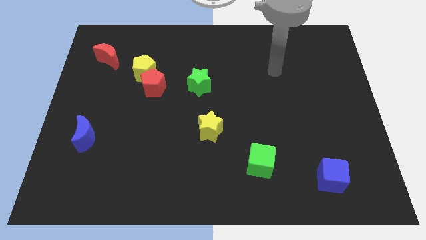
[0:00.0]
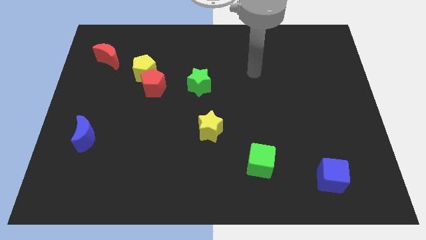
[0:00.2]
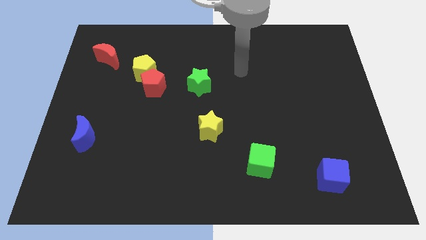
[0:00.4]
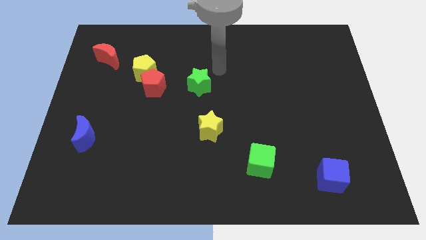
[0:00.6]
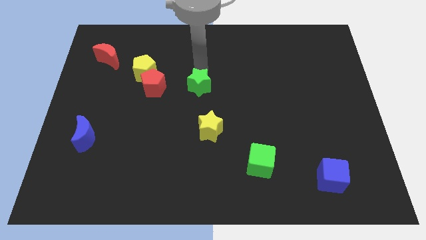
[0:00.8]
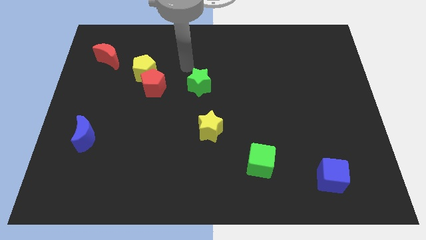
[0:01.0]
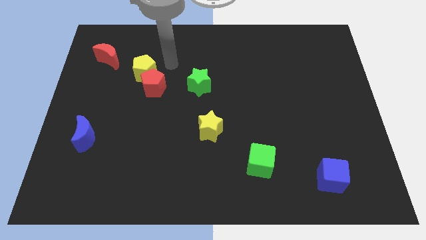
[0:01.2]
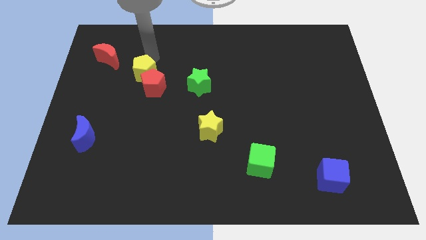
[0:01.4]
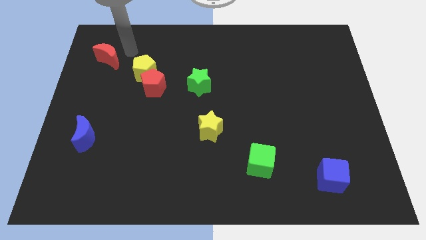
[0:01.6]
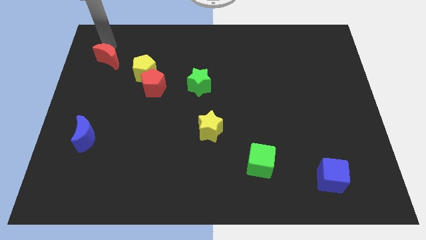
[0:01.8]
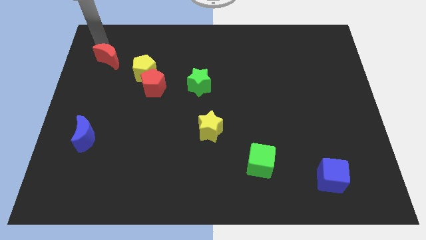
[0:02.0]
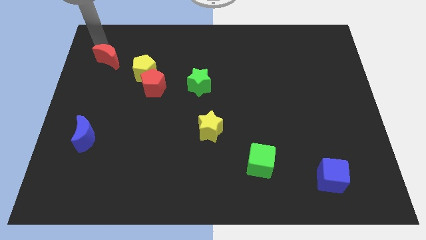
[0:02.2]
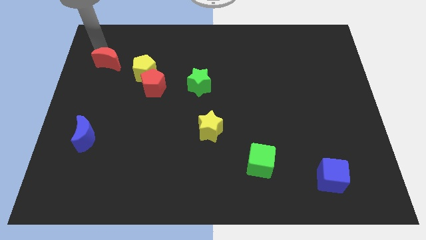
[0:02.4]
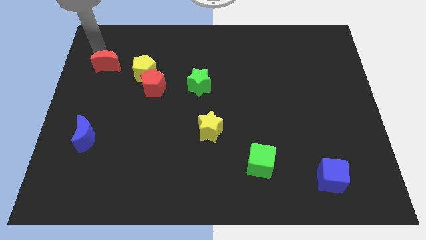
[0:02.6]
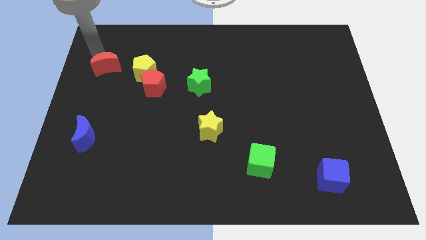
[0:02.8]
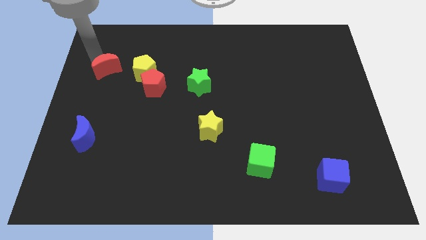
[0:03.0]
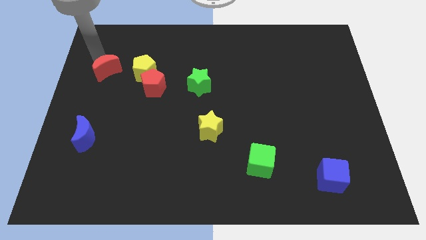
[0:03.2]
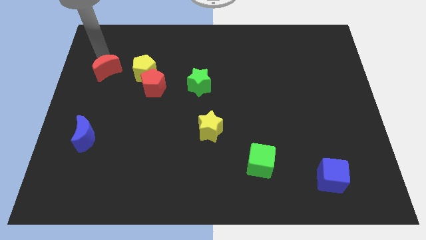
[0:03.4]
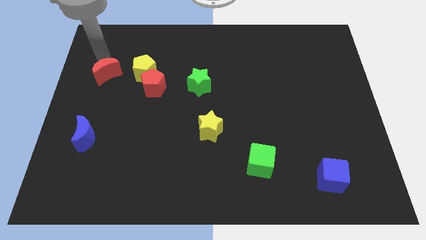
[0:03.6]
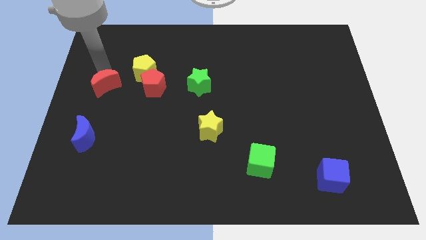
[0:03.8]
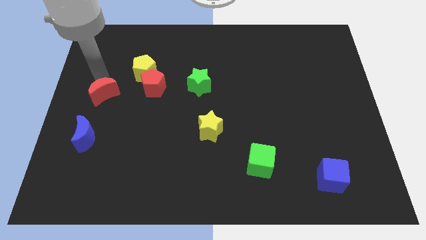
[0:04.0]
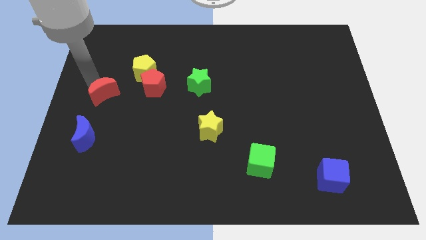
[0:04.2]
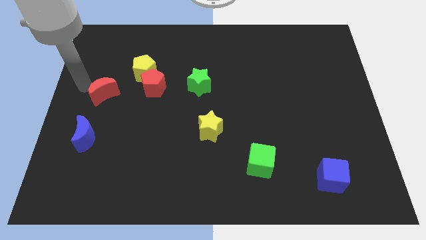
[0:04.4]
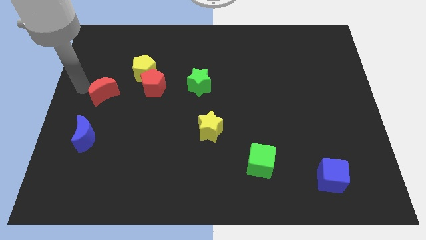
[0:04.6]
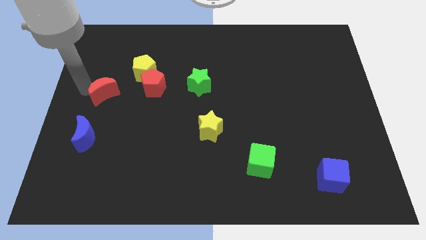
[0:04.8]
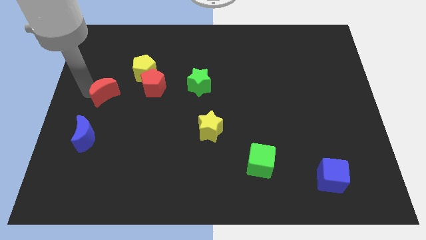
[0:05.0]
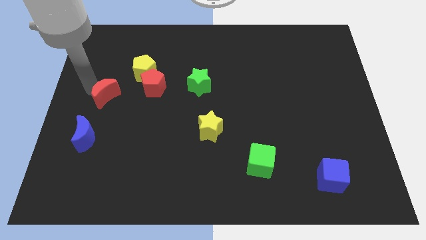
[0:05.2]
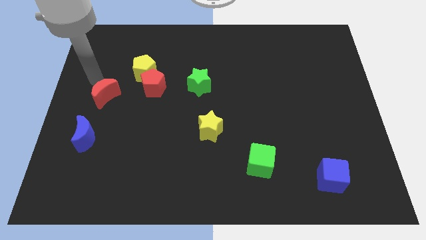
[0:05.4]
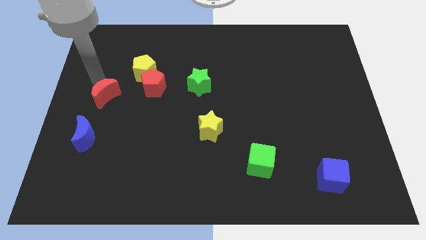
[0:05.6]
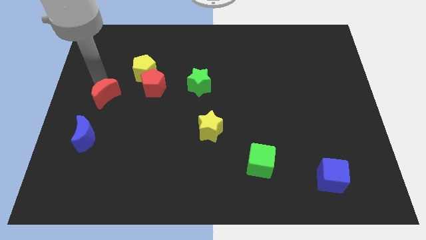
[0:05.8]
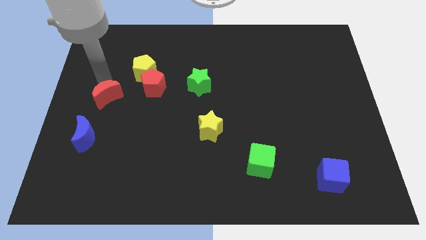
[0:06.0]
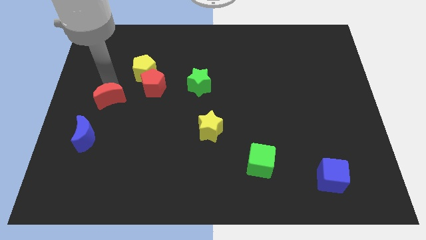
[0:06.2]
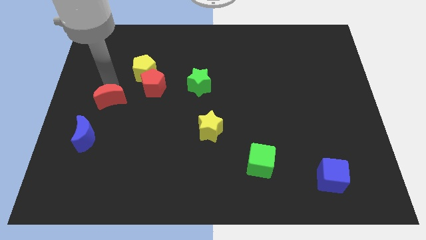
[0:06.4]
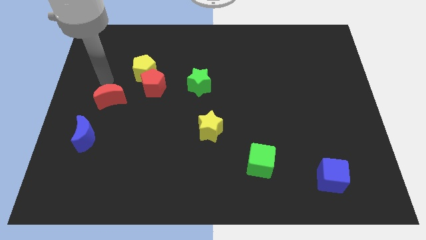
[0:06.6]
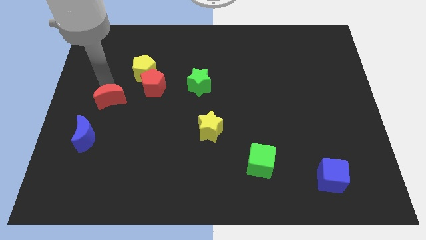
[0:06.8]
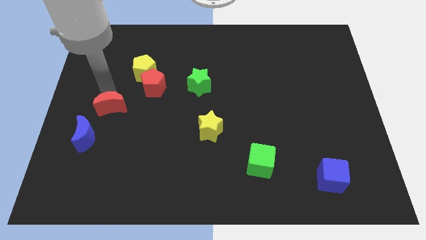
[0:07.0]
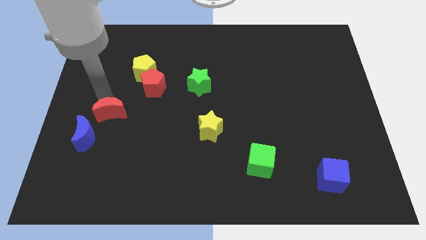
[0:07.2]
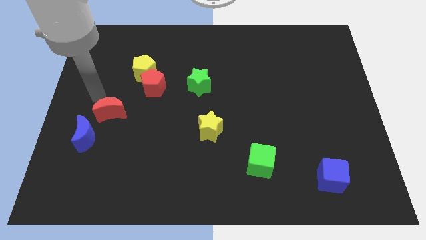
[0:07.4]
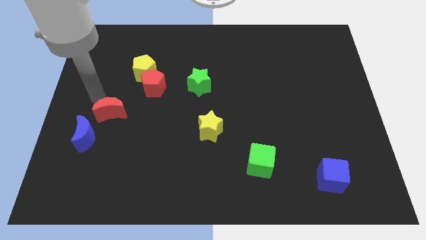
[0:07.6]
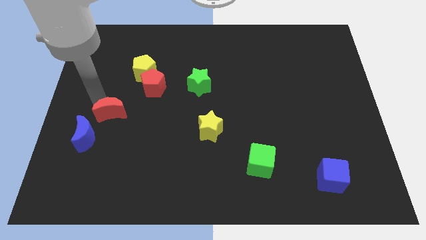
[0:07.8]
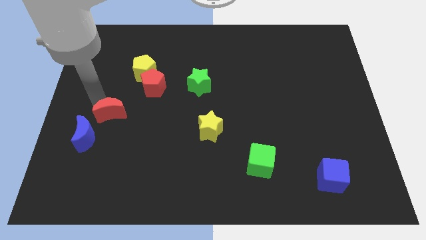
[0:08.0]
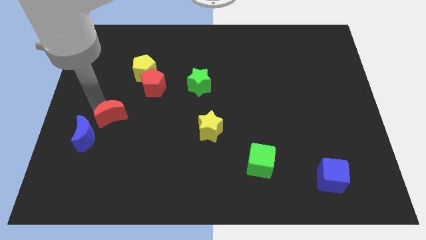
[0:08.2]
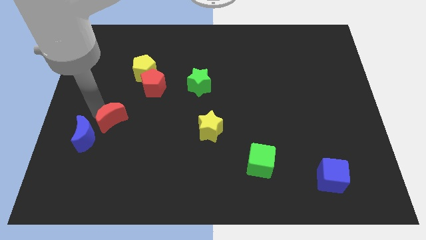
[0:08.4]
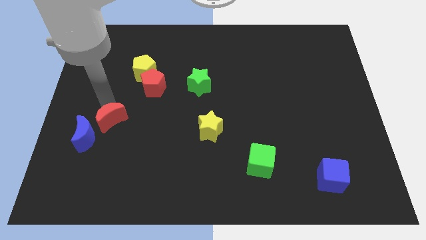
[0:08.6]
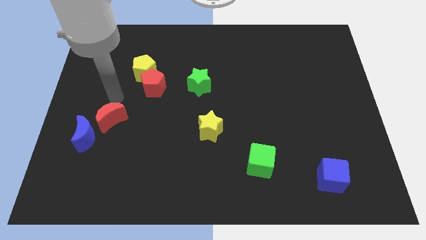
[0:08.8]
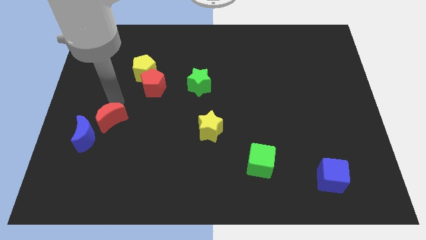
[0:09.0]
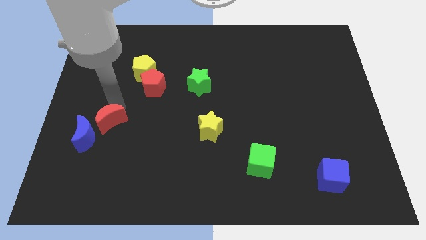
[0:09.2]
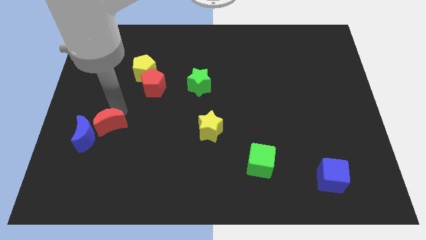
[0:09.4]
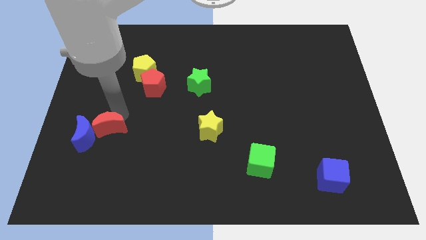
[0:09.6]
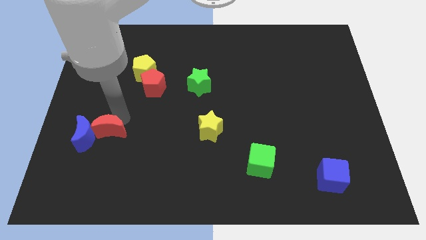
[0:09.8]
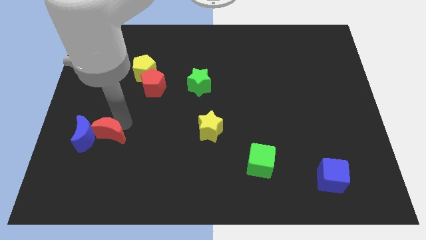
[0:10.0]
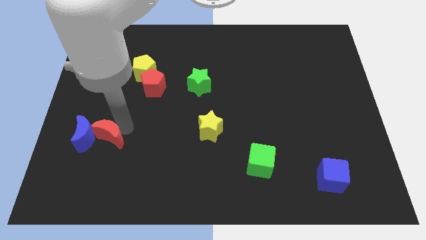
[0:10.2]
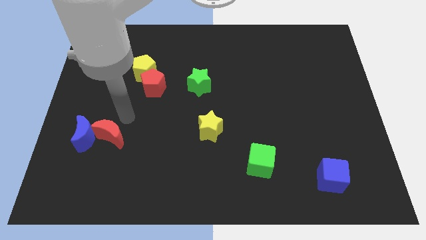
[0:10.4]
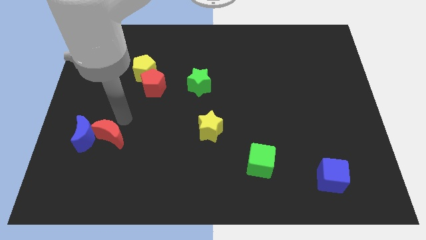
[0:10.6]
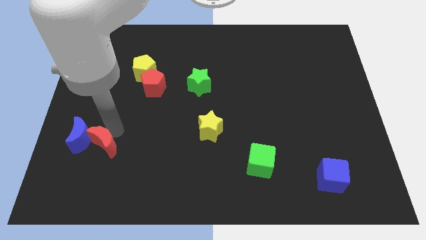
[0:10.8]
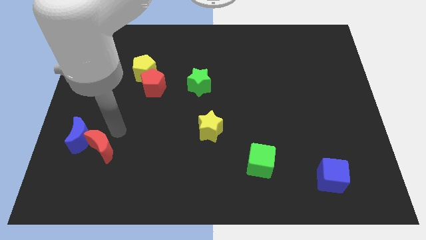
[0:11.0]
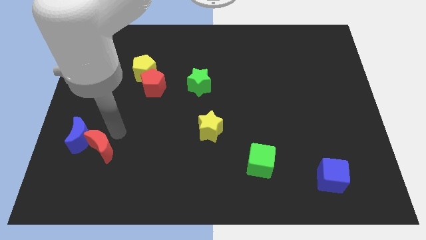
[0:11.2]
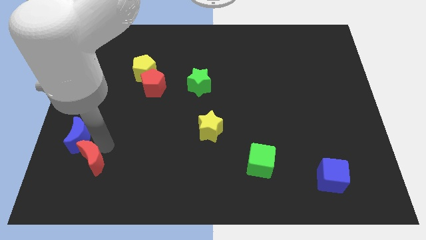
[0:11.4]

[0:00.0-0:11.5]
put the red moon to the bottom of the blue moon

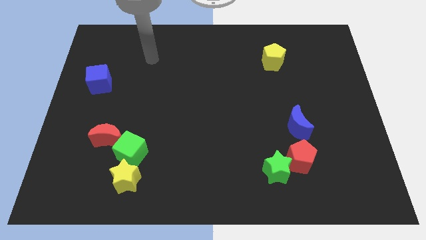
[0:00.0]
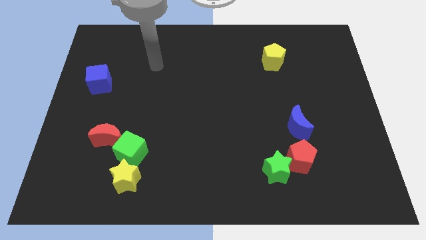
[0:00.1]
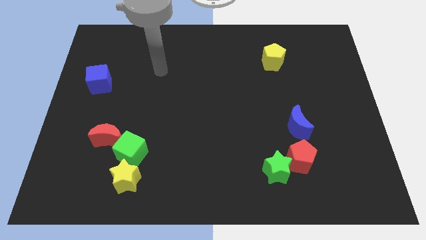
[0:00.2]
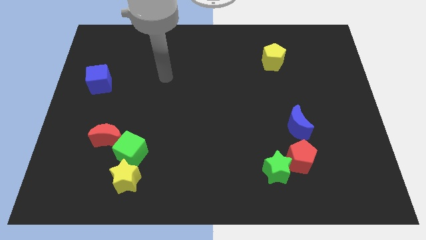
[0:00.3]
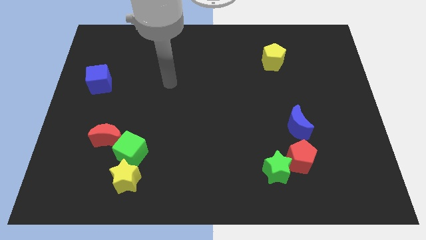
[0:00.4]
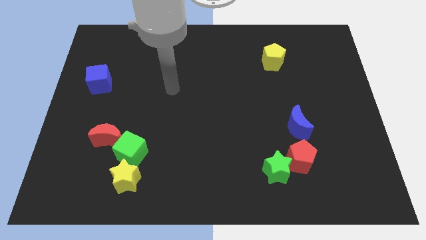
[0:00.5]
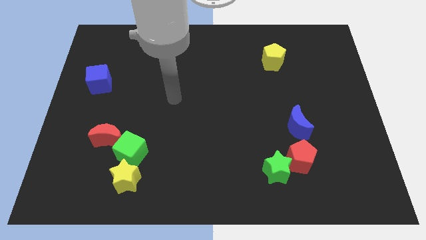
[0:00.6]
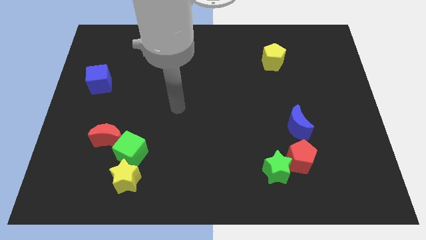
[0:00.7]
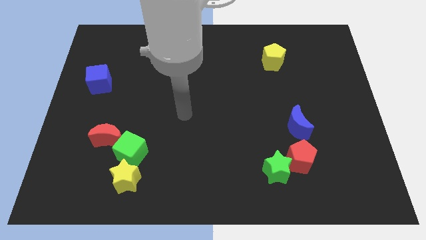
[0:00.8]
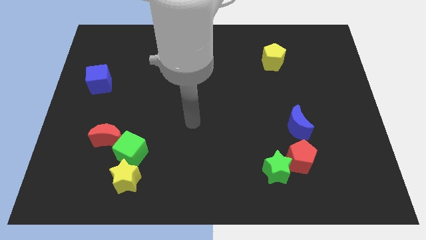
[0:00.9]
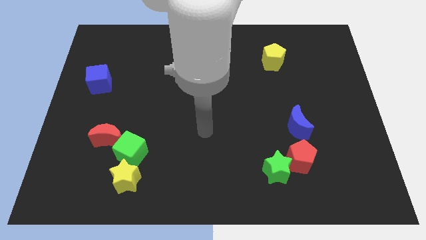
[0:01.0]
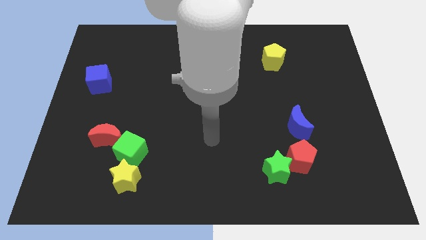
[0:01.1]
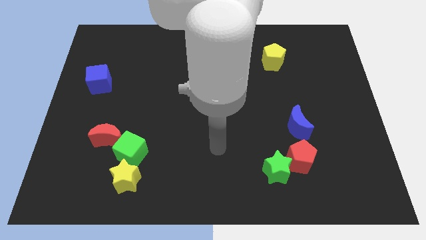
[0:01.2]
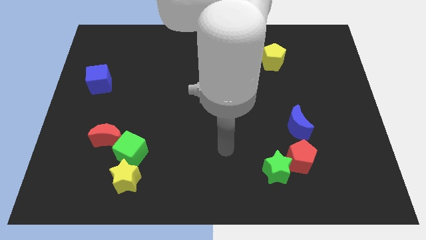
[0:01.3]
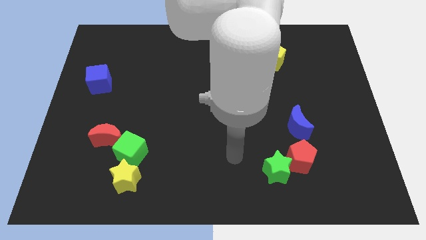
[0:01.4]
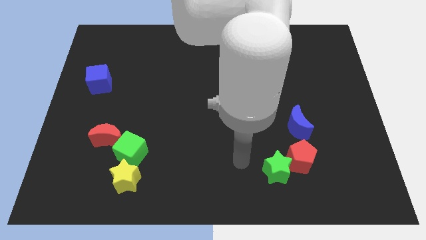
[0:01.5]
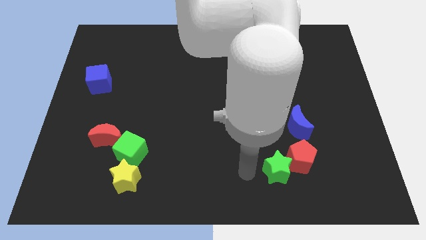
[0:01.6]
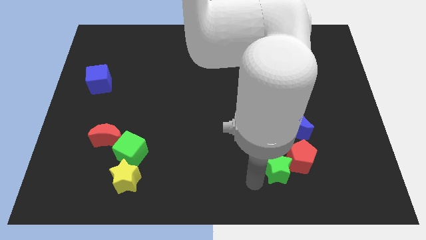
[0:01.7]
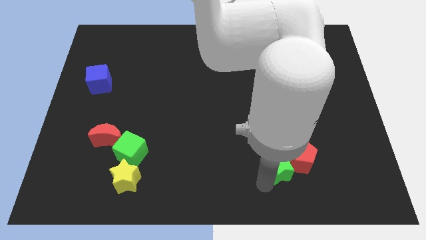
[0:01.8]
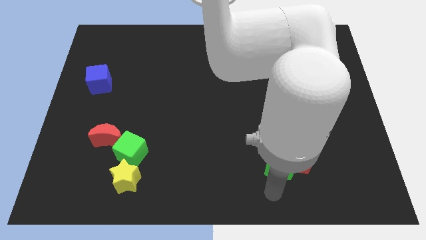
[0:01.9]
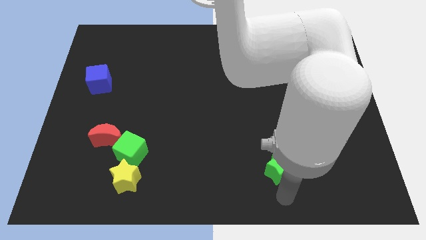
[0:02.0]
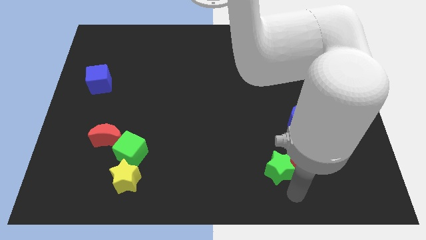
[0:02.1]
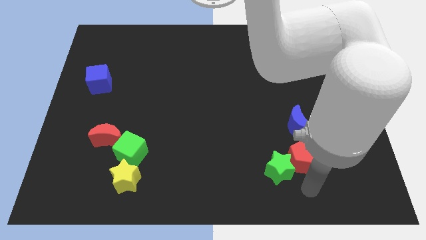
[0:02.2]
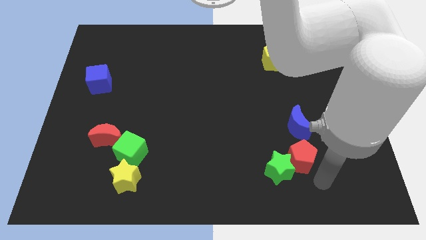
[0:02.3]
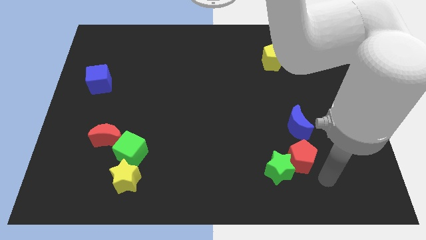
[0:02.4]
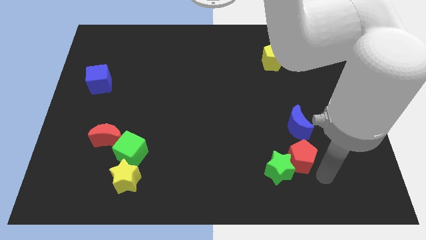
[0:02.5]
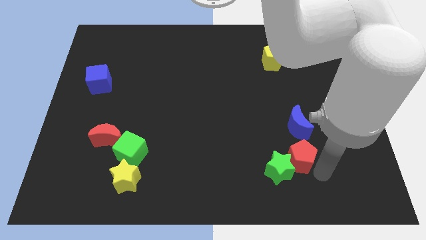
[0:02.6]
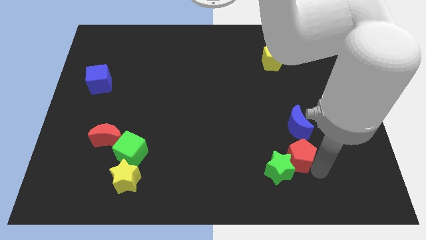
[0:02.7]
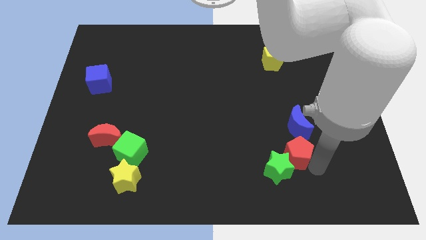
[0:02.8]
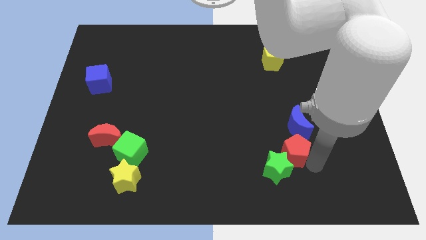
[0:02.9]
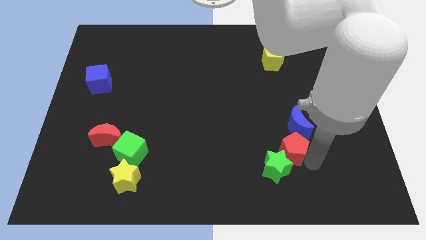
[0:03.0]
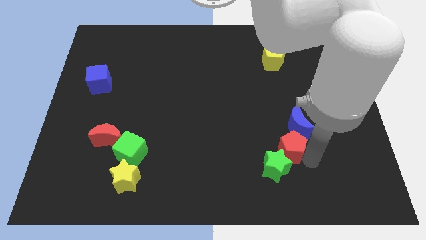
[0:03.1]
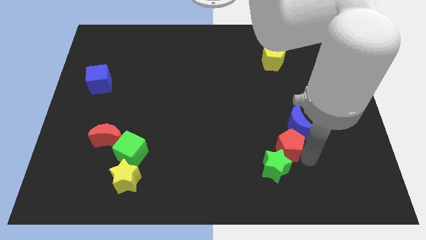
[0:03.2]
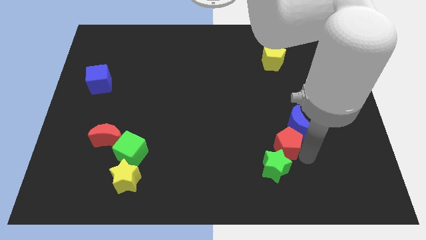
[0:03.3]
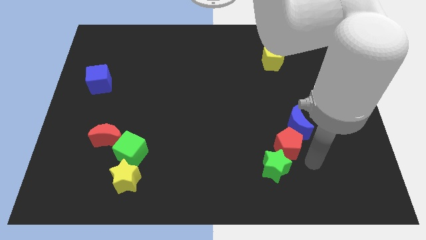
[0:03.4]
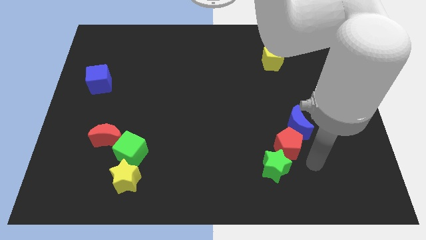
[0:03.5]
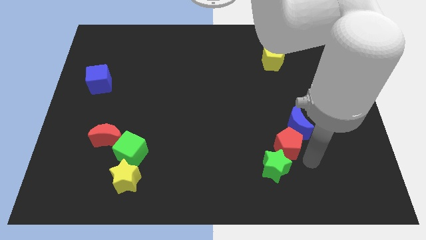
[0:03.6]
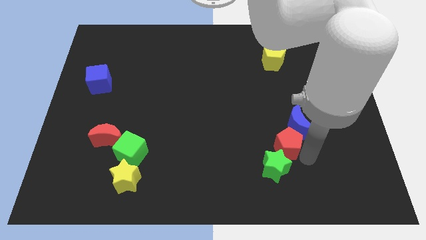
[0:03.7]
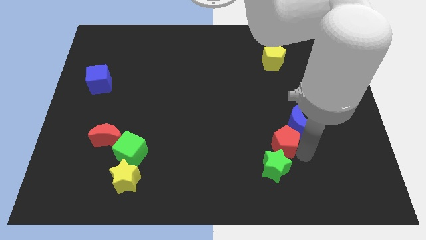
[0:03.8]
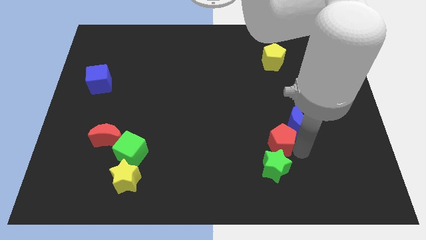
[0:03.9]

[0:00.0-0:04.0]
slide the red pentagon to the left side of the blue moon
